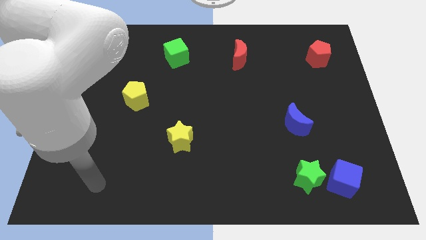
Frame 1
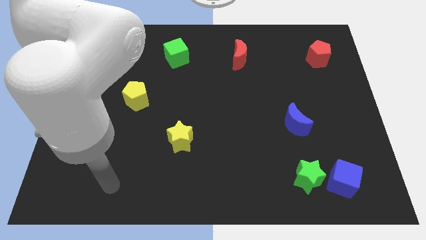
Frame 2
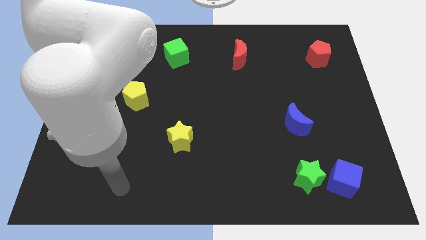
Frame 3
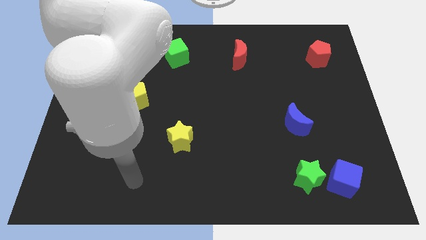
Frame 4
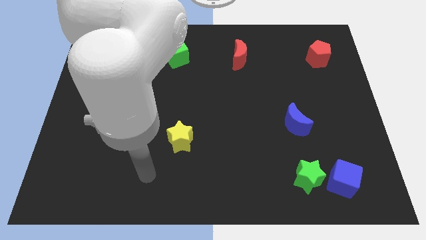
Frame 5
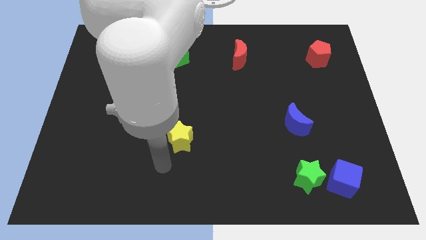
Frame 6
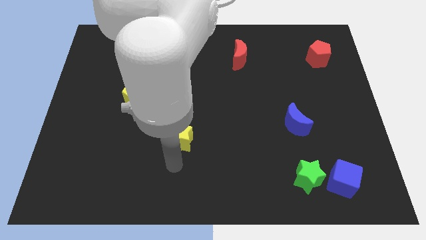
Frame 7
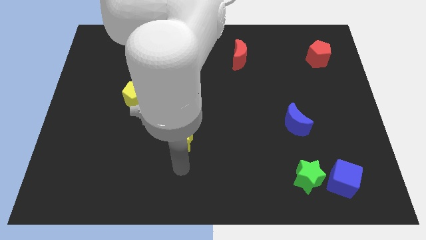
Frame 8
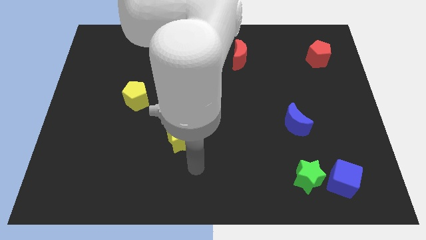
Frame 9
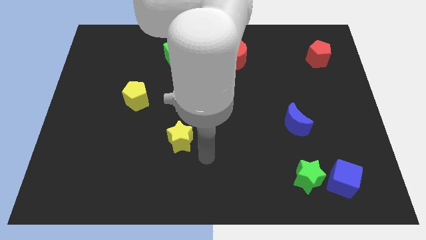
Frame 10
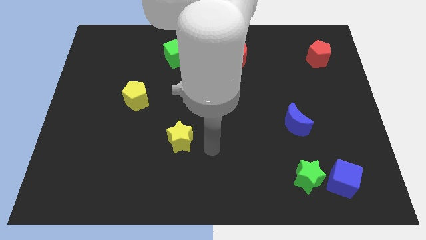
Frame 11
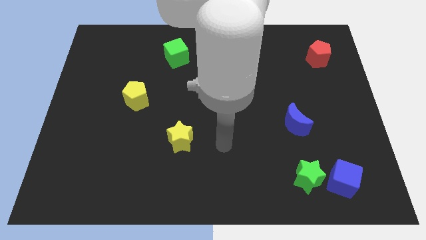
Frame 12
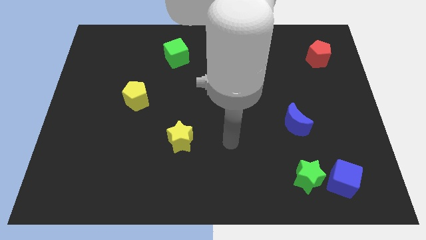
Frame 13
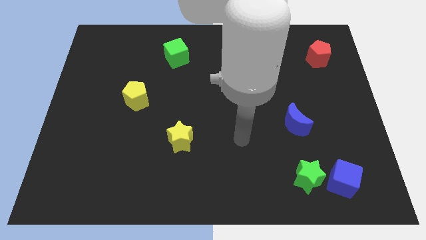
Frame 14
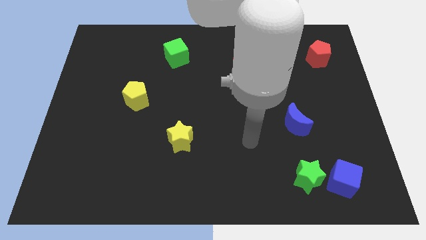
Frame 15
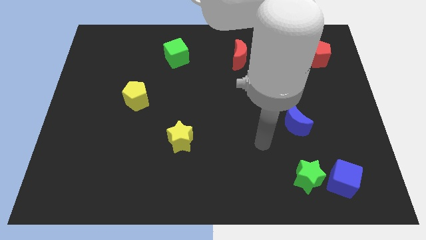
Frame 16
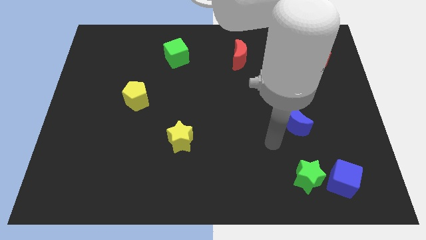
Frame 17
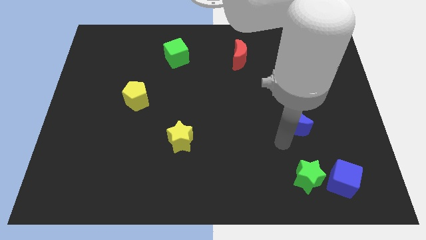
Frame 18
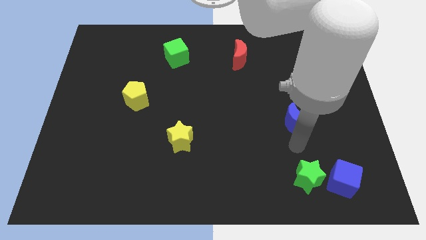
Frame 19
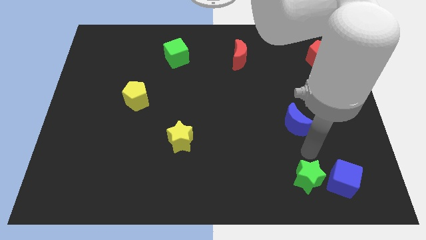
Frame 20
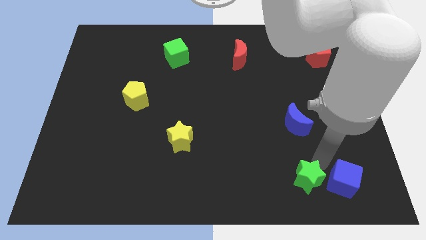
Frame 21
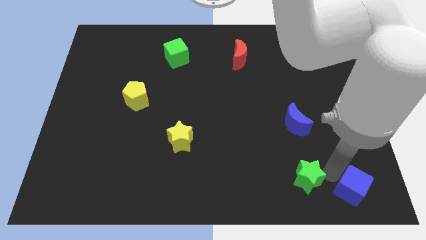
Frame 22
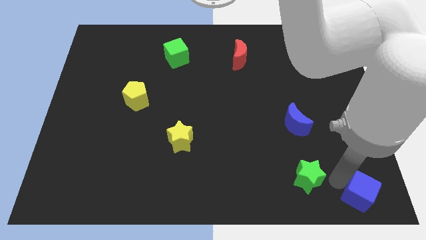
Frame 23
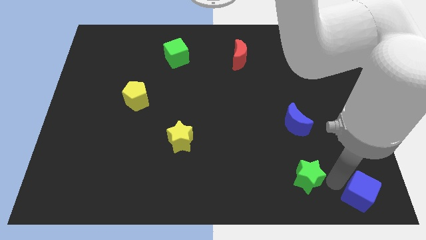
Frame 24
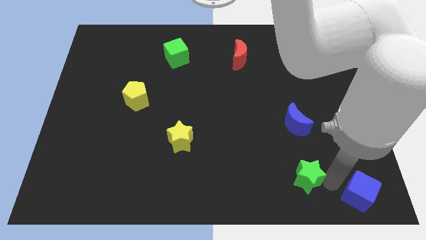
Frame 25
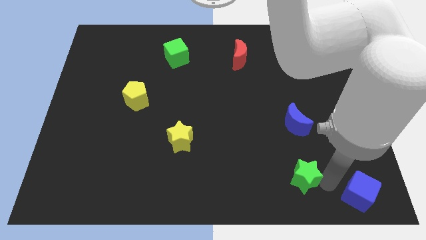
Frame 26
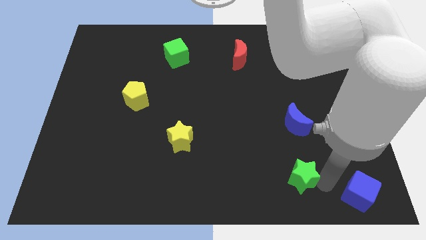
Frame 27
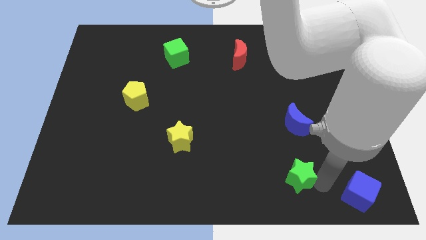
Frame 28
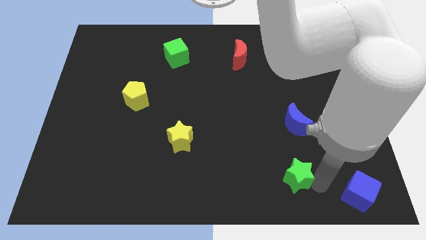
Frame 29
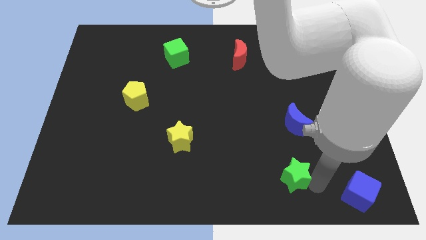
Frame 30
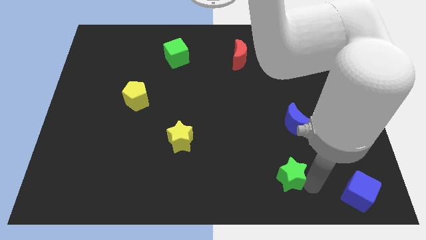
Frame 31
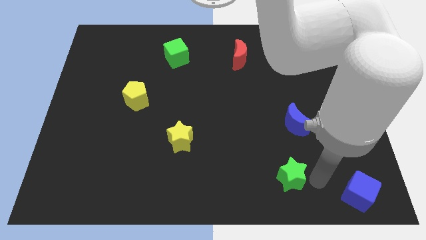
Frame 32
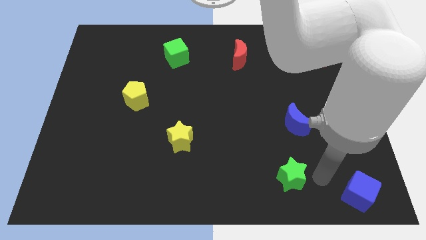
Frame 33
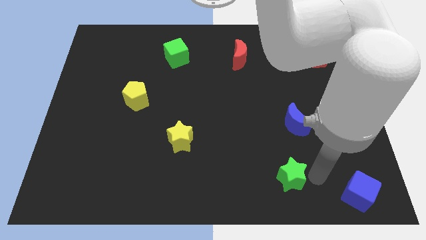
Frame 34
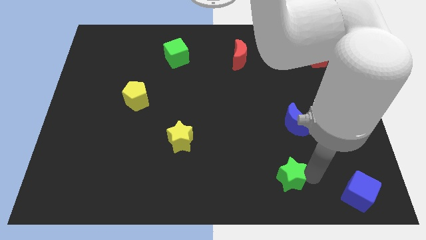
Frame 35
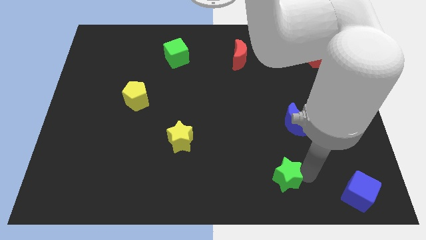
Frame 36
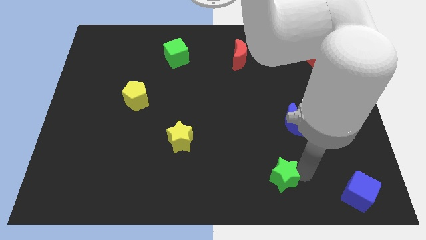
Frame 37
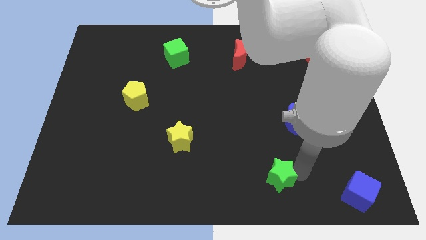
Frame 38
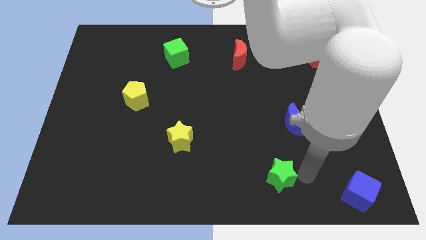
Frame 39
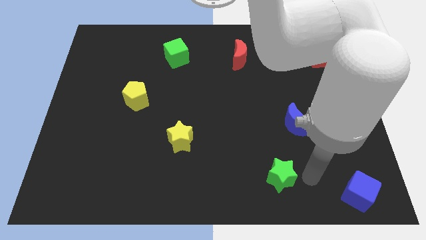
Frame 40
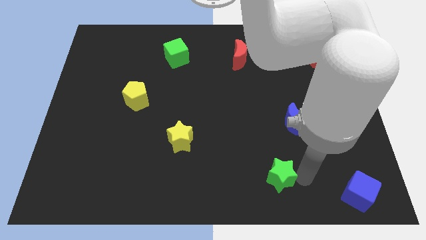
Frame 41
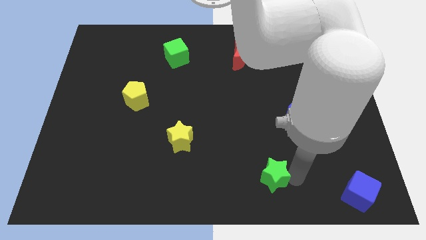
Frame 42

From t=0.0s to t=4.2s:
push the green star to the left a little

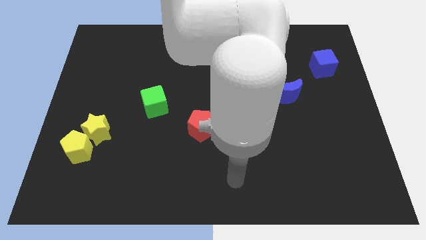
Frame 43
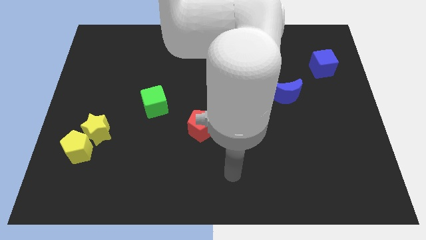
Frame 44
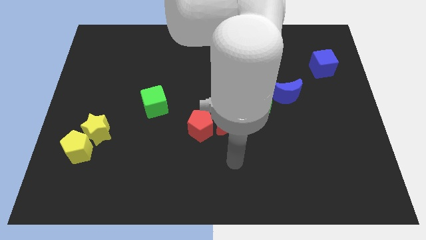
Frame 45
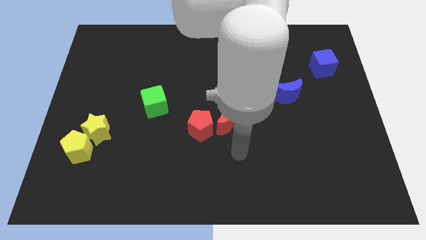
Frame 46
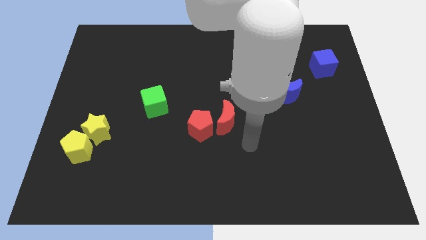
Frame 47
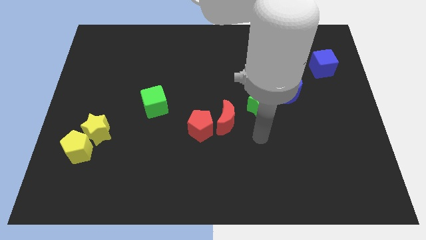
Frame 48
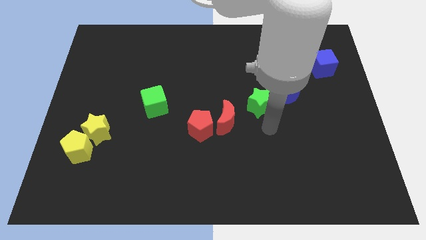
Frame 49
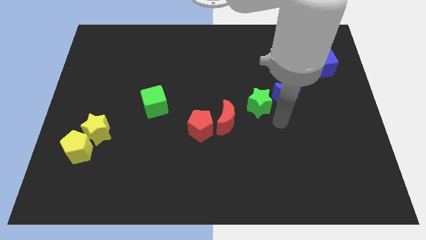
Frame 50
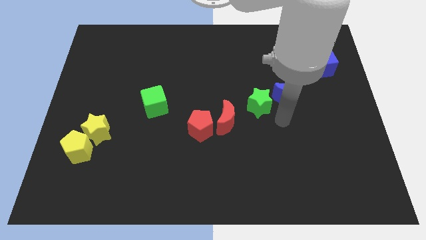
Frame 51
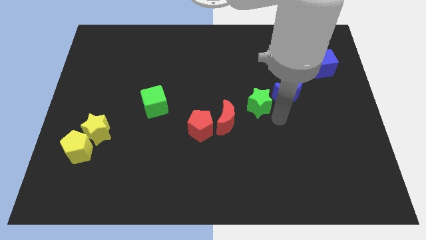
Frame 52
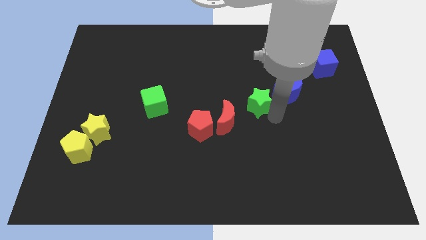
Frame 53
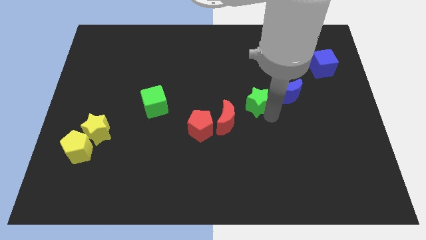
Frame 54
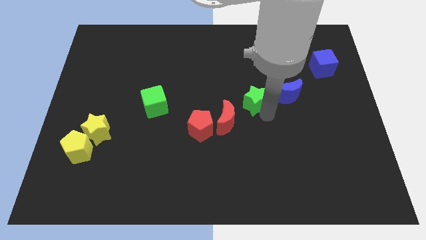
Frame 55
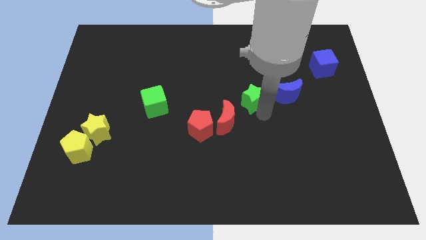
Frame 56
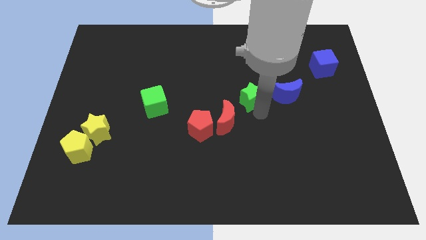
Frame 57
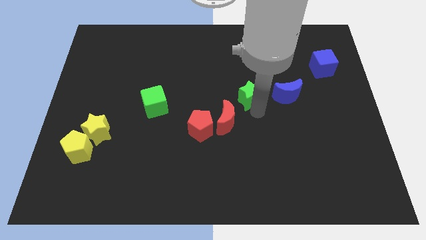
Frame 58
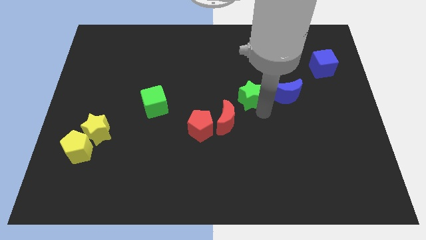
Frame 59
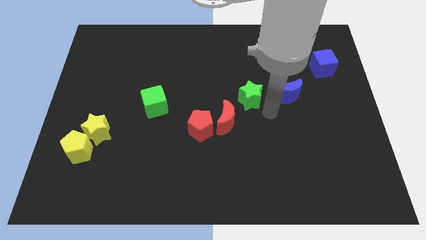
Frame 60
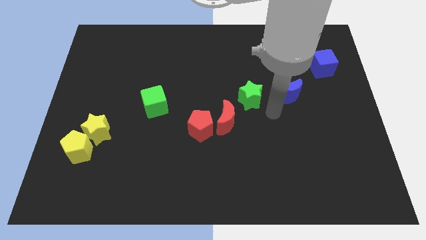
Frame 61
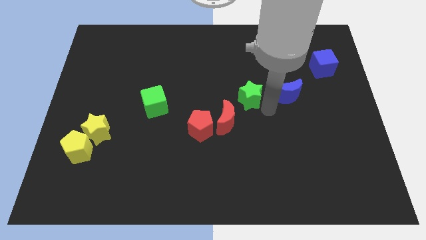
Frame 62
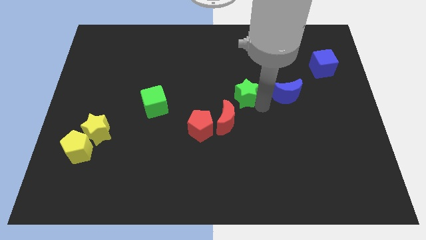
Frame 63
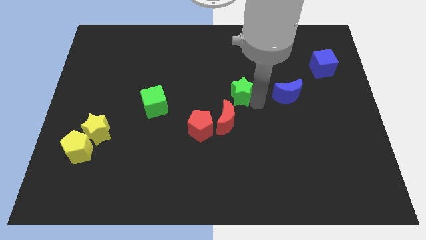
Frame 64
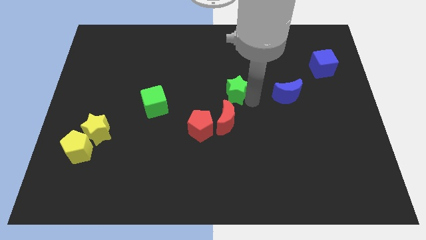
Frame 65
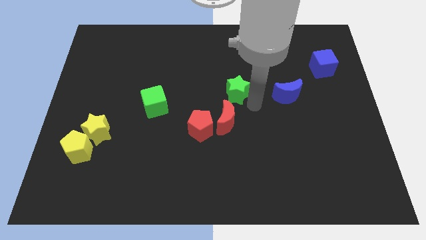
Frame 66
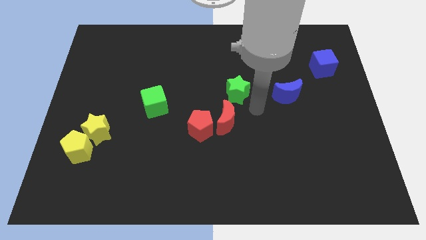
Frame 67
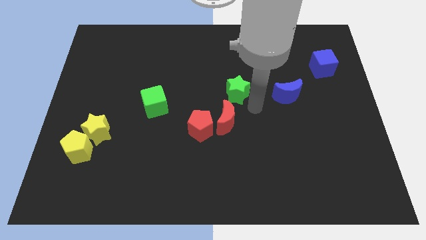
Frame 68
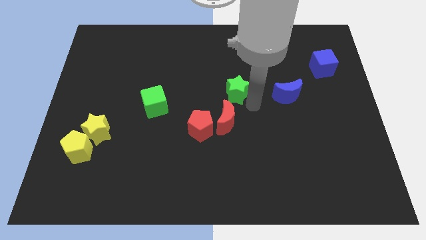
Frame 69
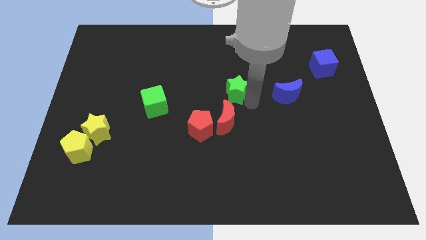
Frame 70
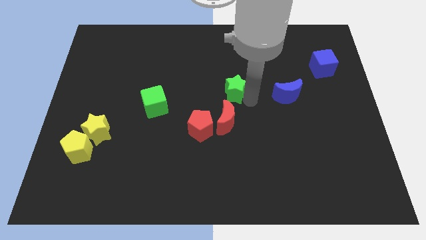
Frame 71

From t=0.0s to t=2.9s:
push the green star a bit up and left

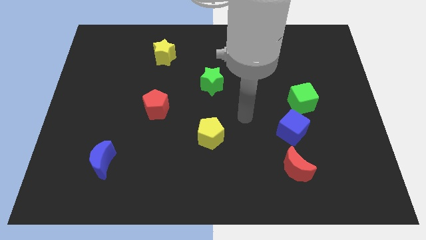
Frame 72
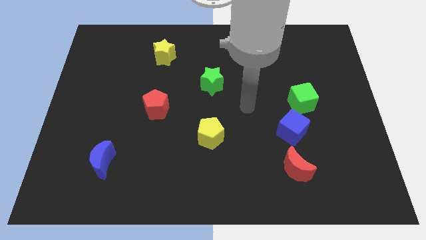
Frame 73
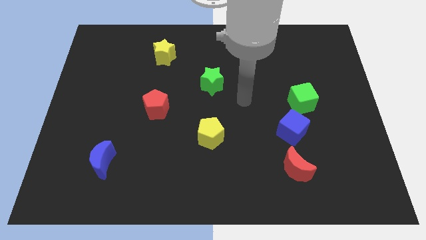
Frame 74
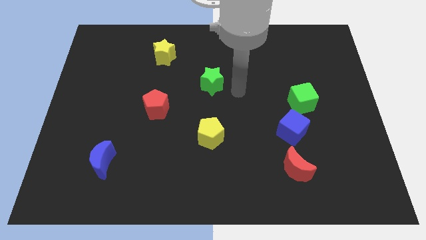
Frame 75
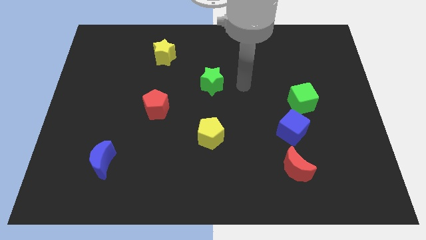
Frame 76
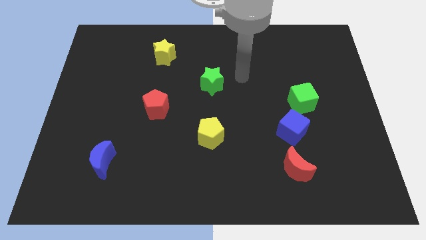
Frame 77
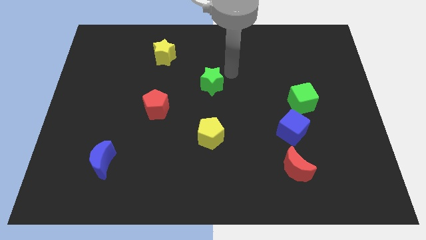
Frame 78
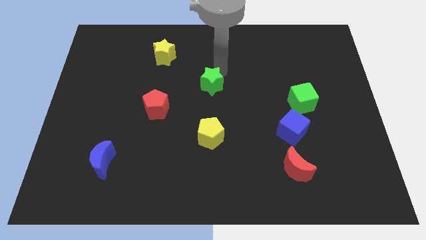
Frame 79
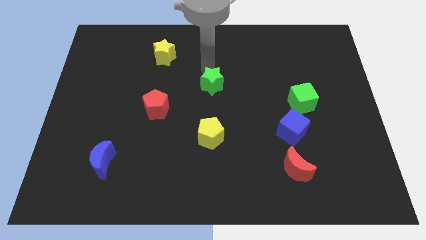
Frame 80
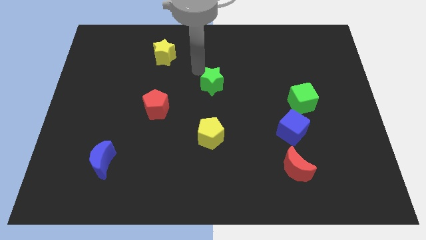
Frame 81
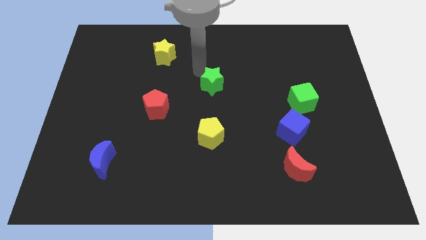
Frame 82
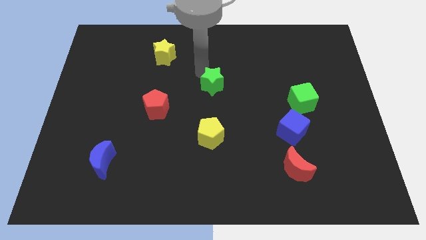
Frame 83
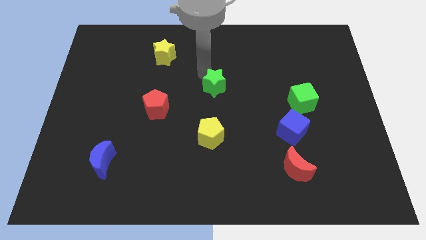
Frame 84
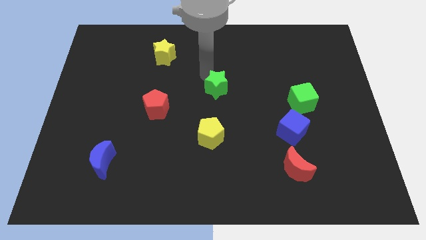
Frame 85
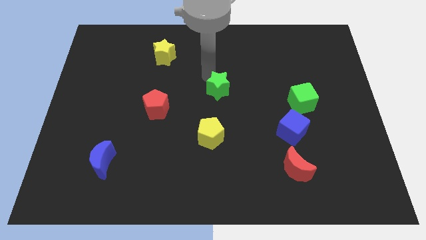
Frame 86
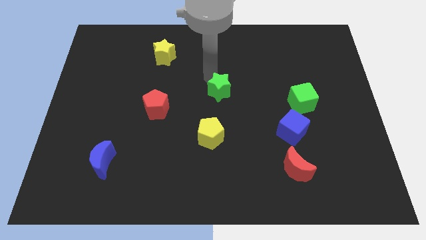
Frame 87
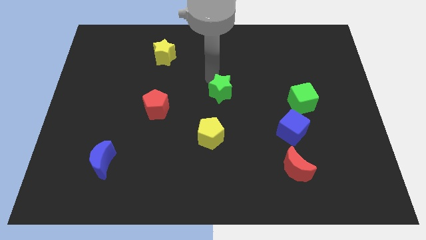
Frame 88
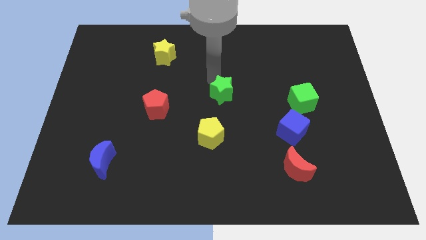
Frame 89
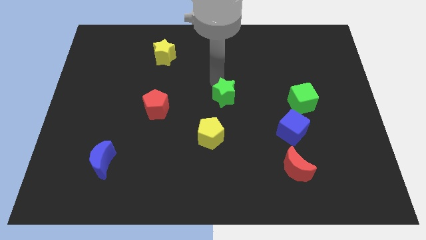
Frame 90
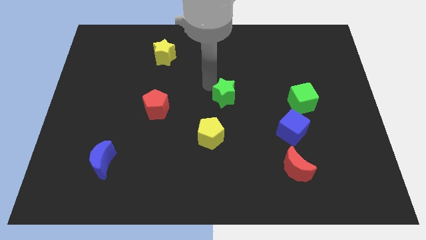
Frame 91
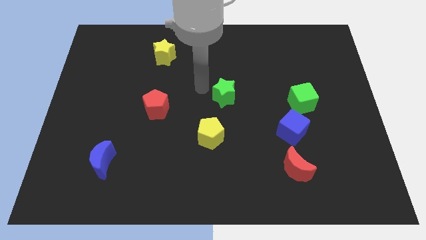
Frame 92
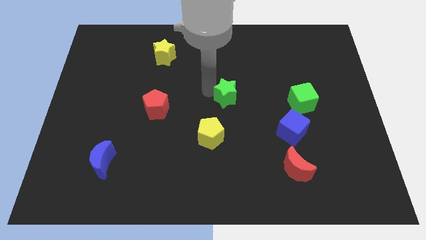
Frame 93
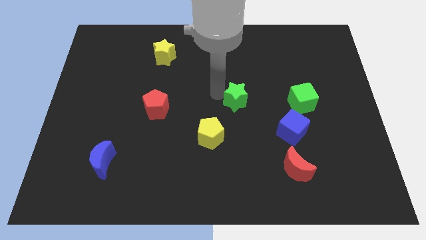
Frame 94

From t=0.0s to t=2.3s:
push the green star diagonally downwards and right slightly
